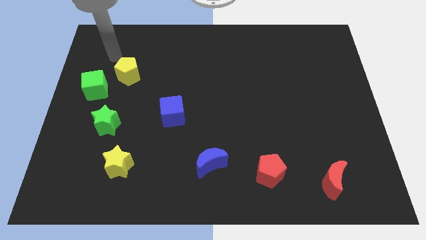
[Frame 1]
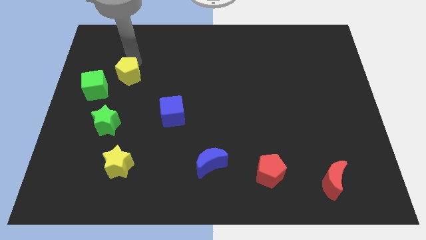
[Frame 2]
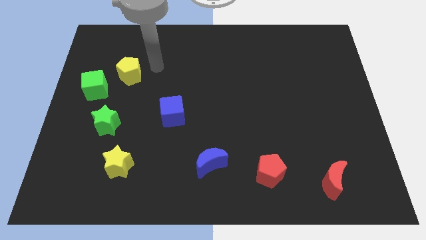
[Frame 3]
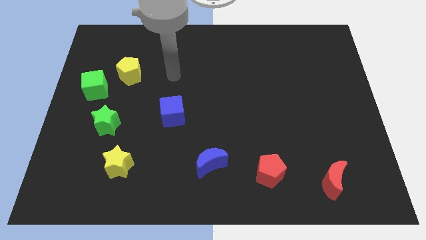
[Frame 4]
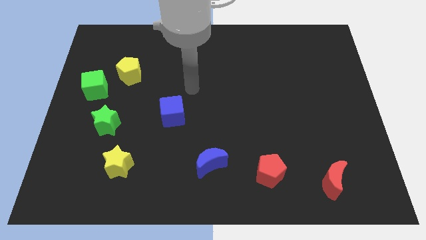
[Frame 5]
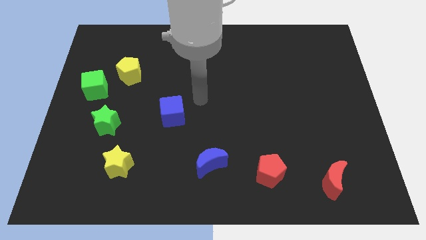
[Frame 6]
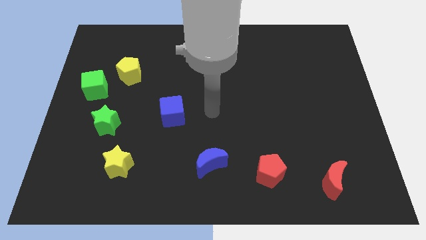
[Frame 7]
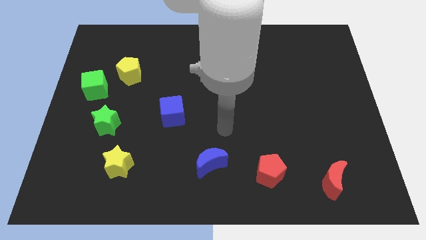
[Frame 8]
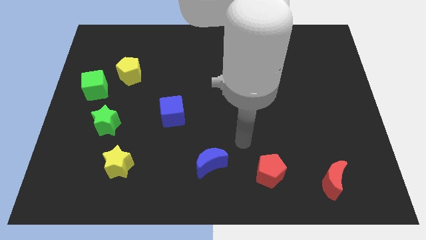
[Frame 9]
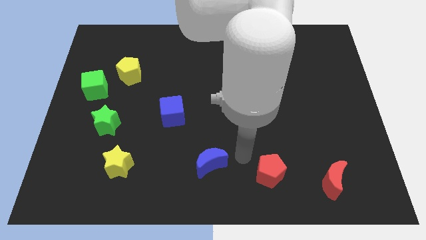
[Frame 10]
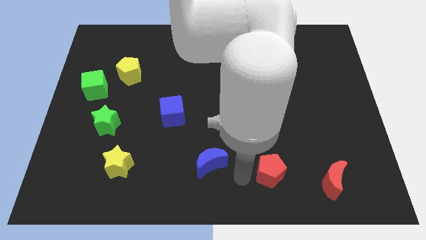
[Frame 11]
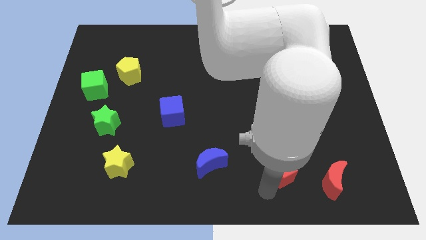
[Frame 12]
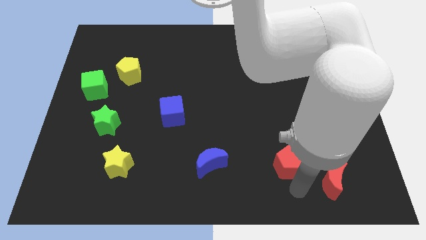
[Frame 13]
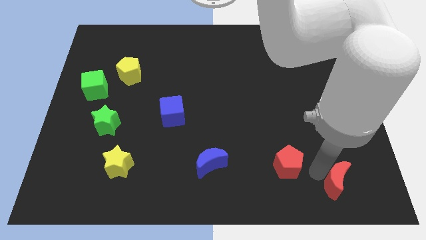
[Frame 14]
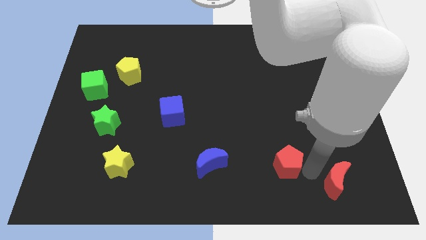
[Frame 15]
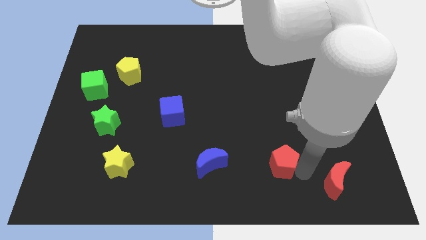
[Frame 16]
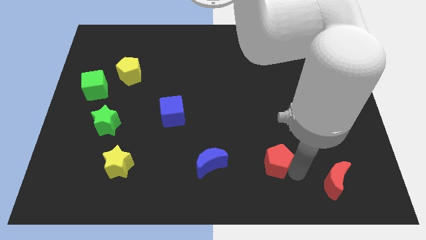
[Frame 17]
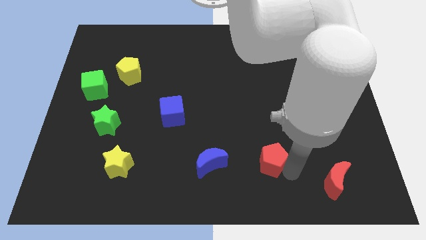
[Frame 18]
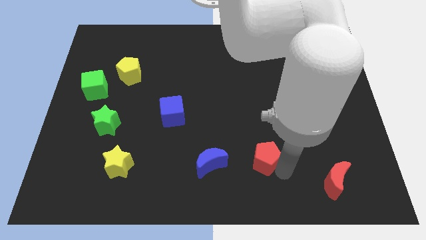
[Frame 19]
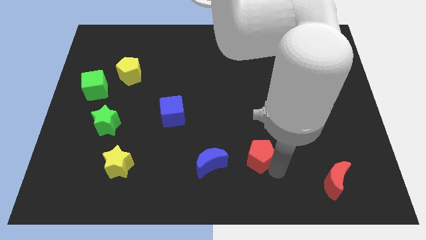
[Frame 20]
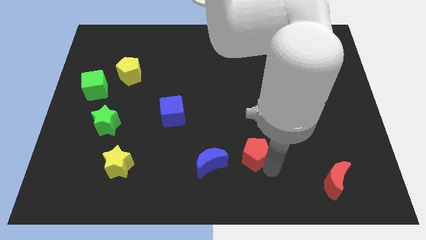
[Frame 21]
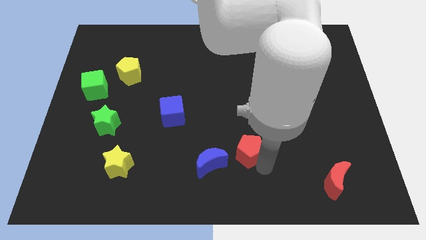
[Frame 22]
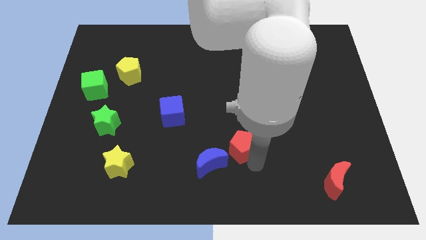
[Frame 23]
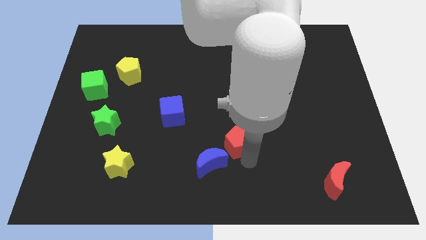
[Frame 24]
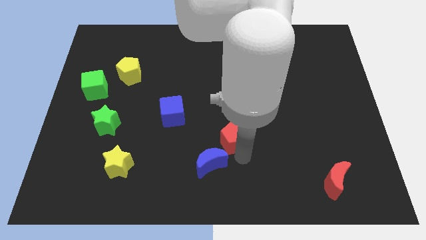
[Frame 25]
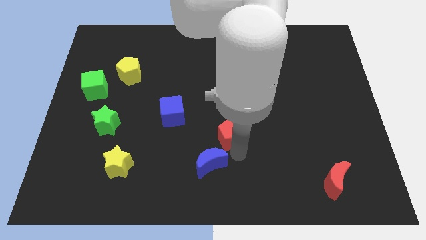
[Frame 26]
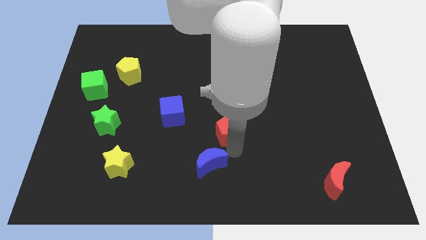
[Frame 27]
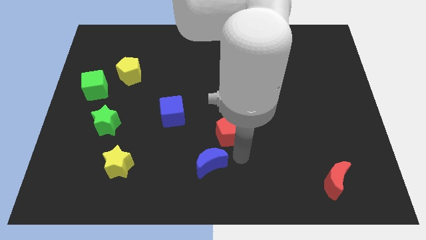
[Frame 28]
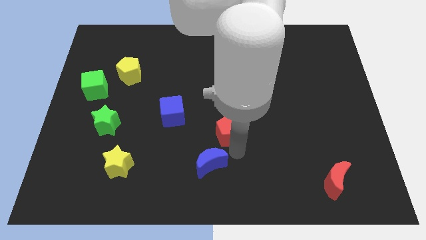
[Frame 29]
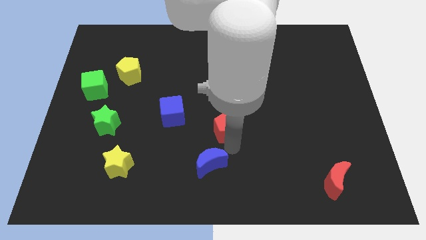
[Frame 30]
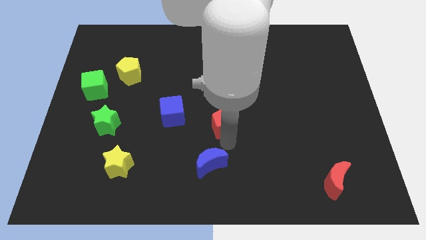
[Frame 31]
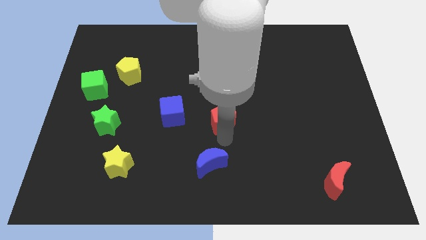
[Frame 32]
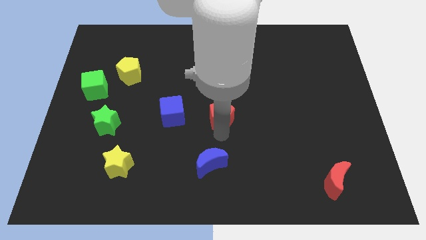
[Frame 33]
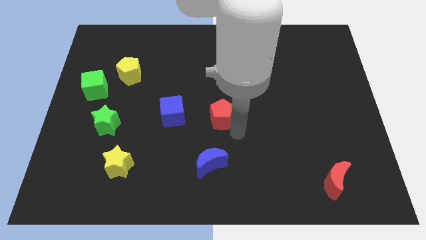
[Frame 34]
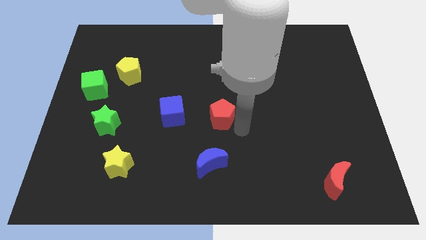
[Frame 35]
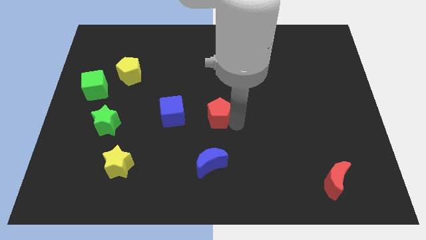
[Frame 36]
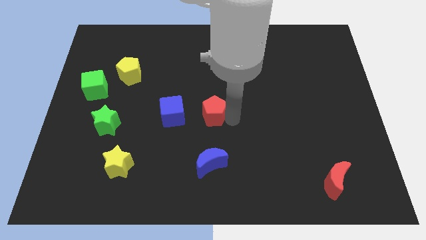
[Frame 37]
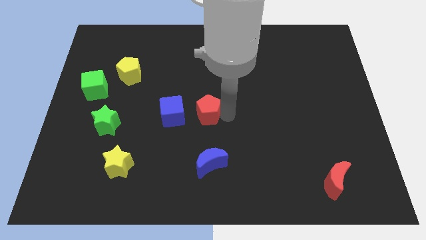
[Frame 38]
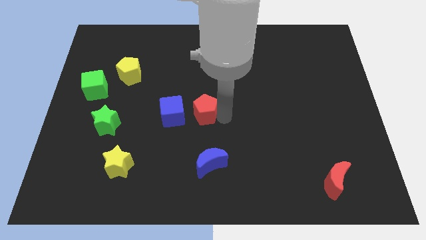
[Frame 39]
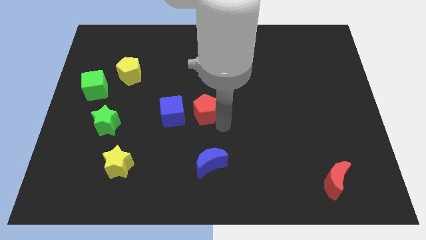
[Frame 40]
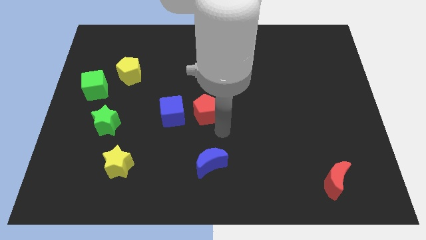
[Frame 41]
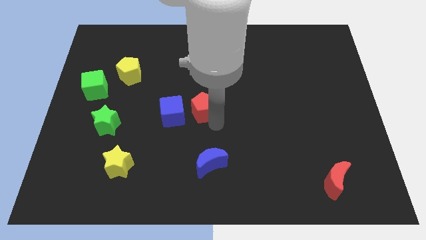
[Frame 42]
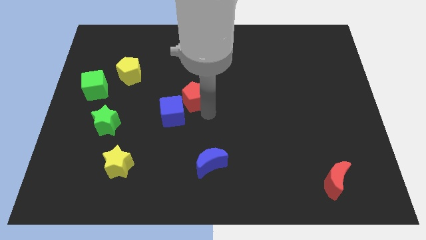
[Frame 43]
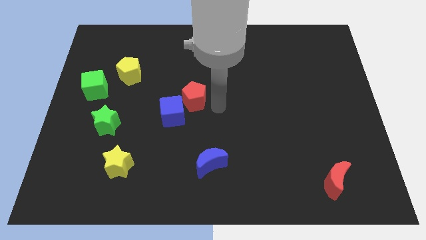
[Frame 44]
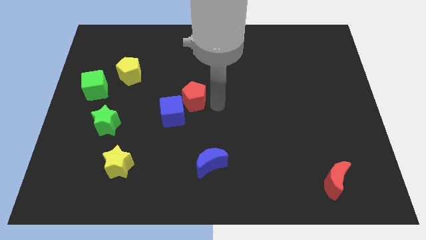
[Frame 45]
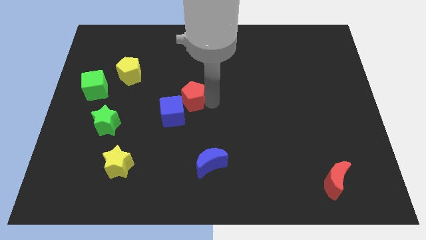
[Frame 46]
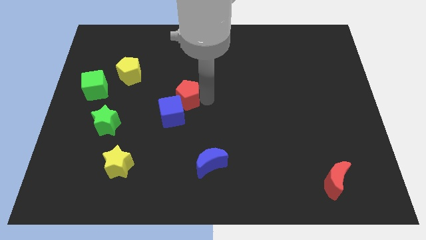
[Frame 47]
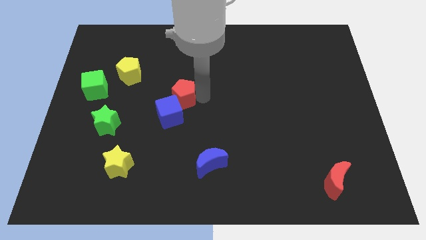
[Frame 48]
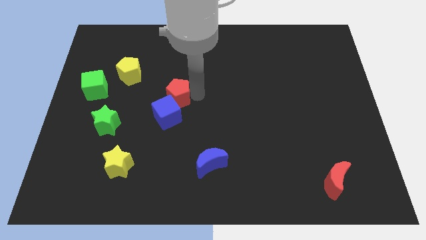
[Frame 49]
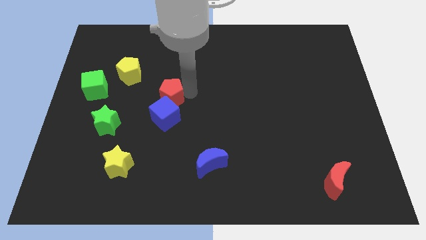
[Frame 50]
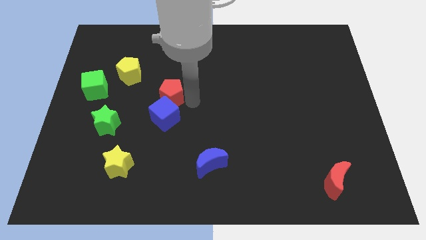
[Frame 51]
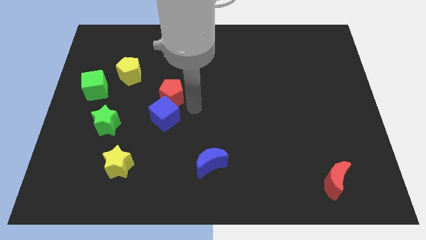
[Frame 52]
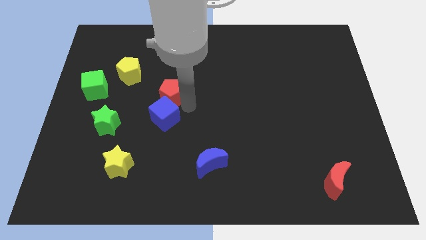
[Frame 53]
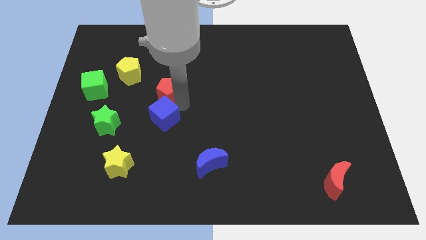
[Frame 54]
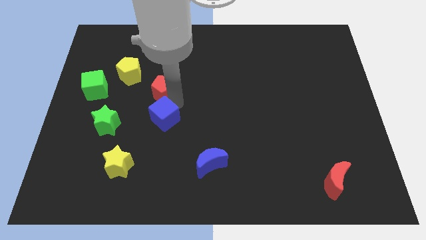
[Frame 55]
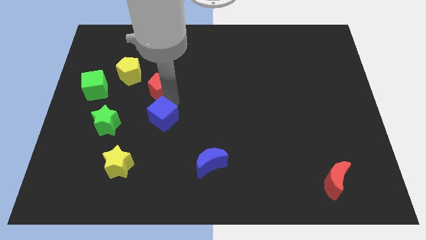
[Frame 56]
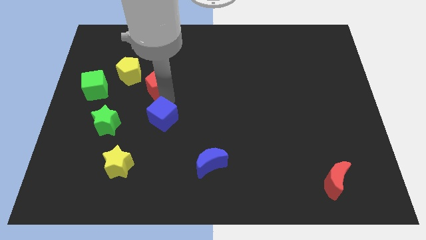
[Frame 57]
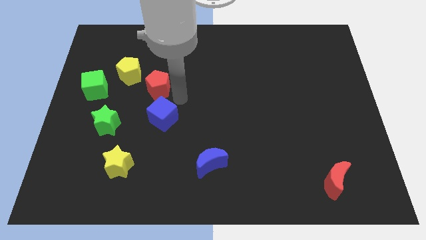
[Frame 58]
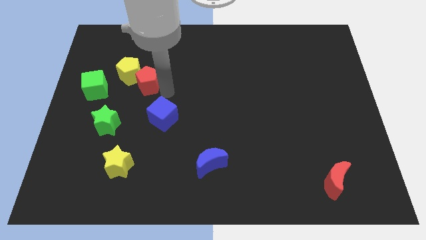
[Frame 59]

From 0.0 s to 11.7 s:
move the red pentagon to the yellow pentagon

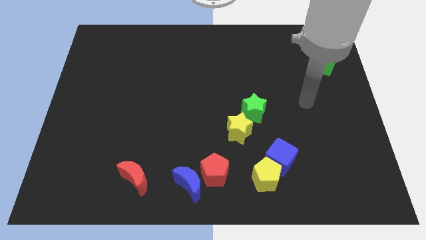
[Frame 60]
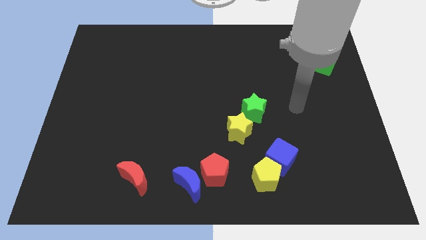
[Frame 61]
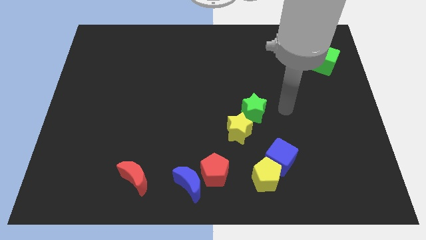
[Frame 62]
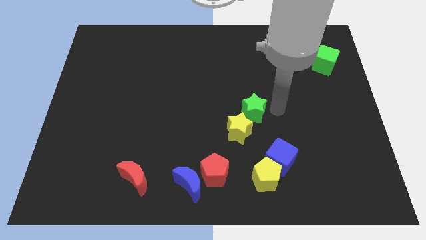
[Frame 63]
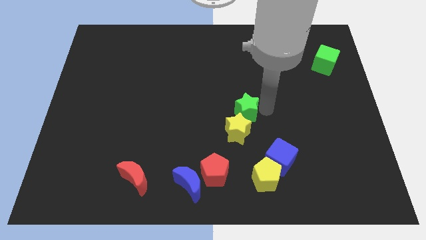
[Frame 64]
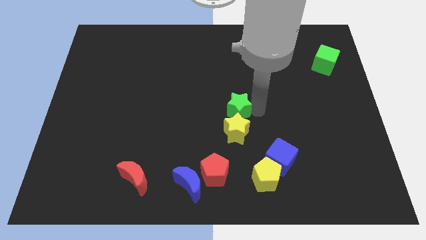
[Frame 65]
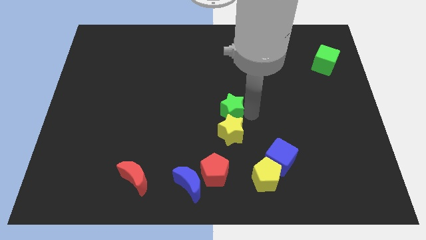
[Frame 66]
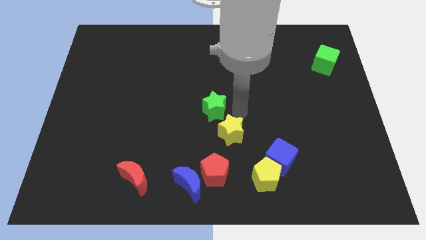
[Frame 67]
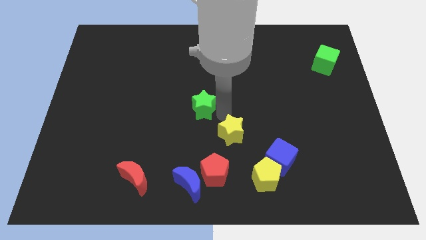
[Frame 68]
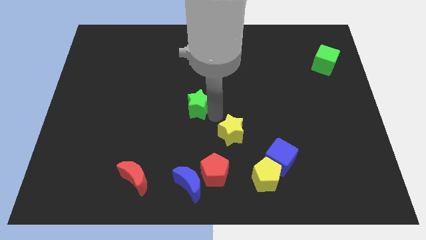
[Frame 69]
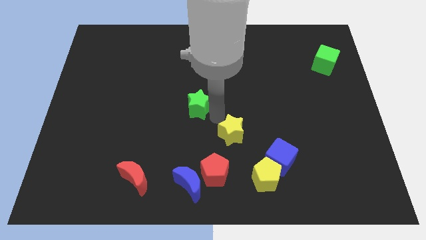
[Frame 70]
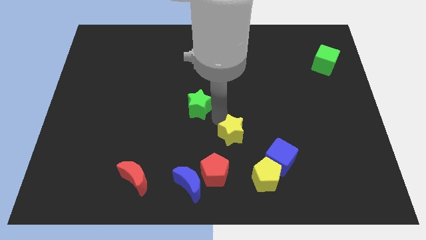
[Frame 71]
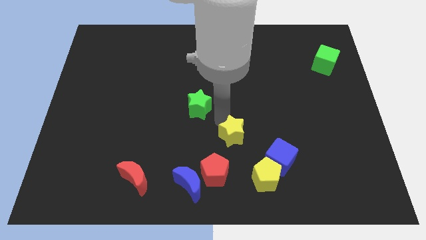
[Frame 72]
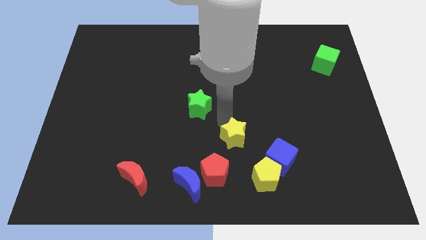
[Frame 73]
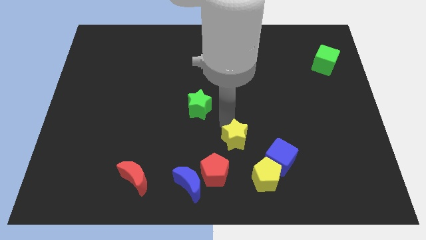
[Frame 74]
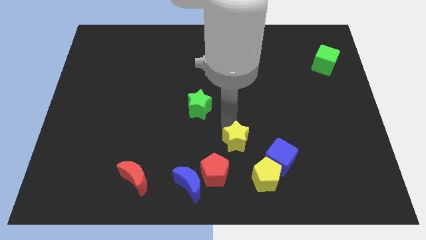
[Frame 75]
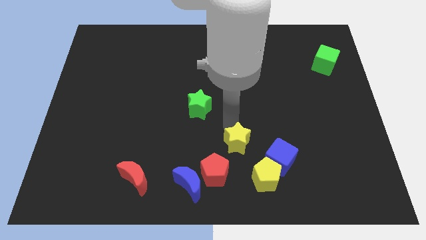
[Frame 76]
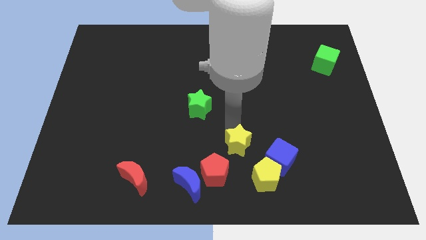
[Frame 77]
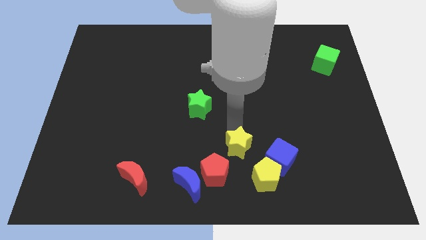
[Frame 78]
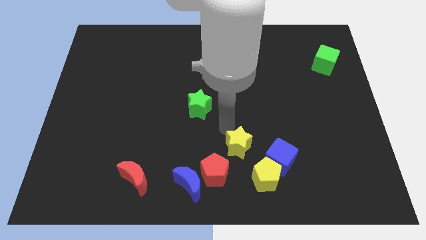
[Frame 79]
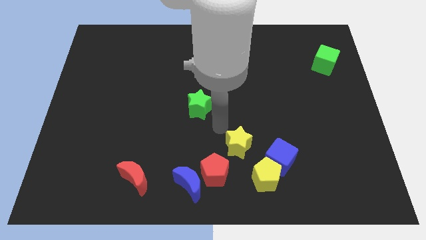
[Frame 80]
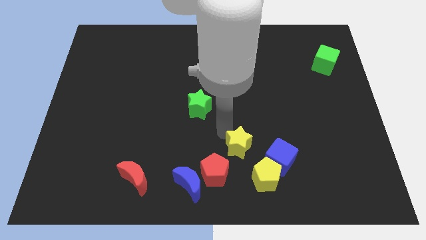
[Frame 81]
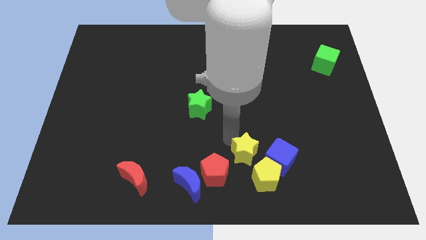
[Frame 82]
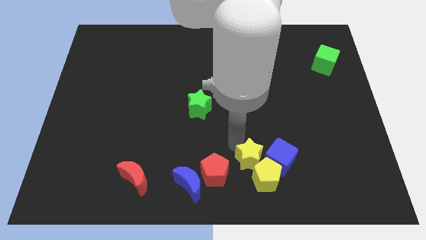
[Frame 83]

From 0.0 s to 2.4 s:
move the yellow star close to the yellow pentagon
